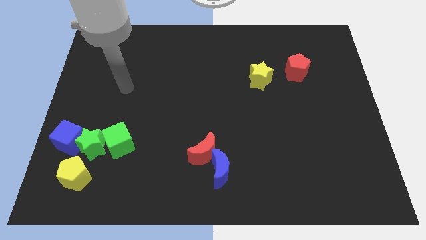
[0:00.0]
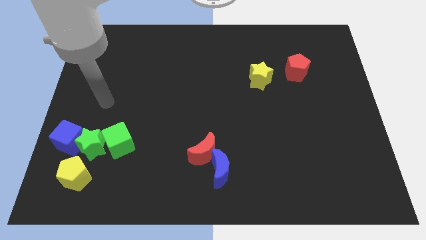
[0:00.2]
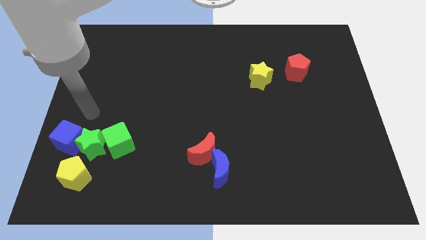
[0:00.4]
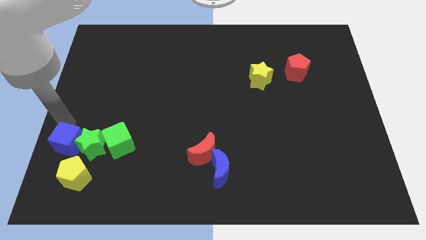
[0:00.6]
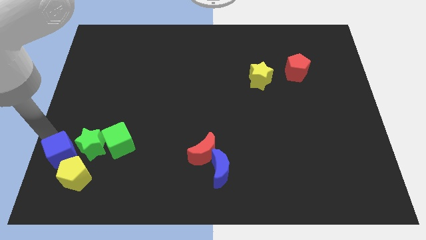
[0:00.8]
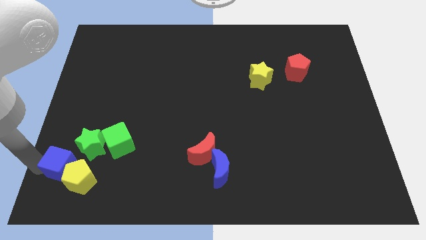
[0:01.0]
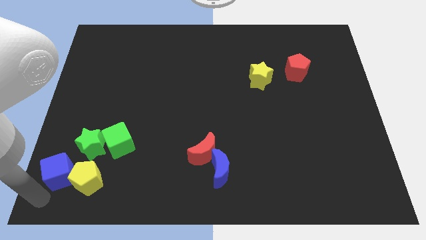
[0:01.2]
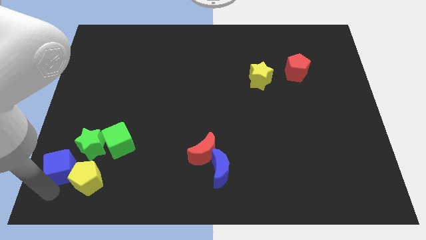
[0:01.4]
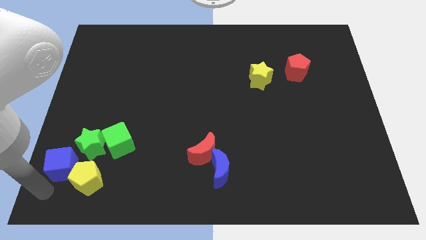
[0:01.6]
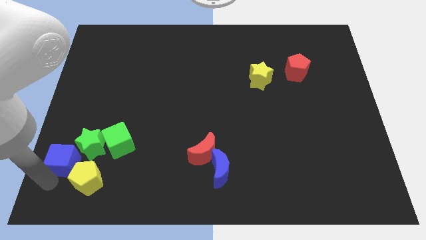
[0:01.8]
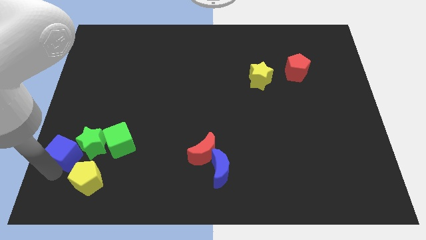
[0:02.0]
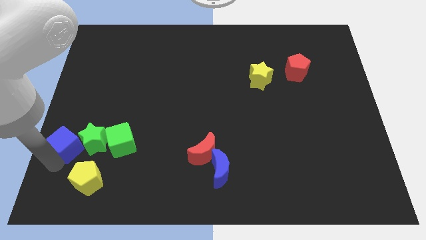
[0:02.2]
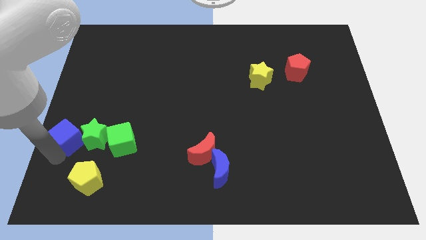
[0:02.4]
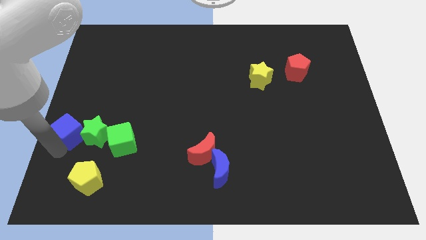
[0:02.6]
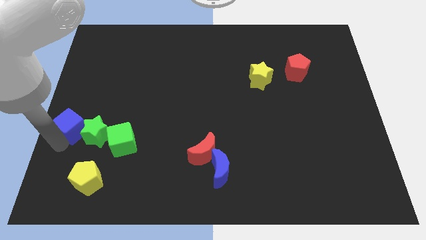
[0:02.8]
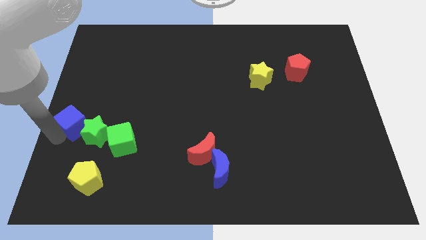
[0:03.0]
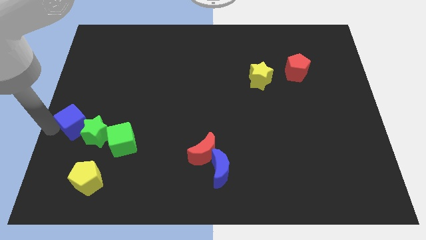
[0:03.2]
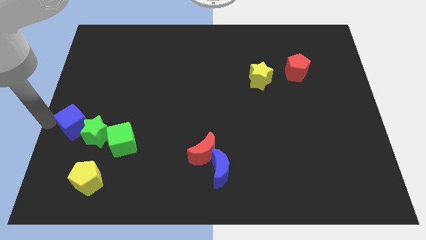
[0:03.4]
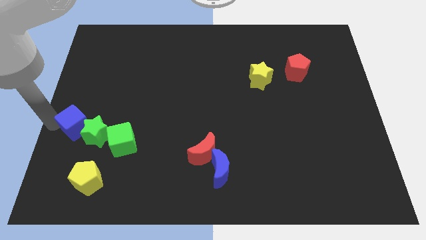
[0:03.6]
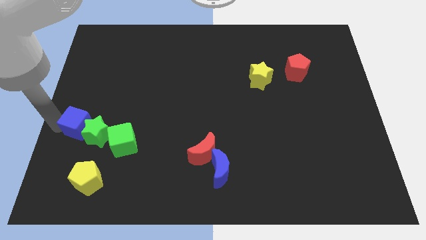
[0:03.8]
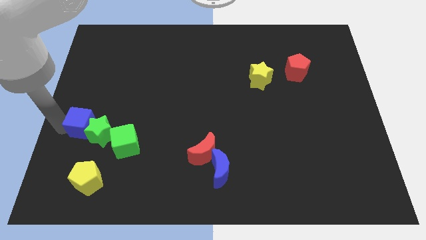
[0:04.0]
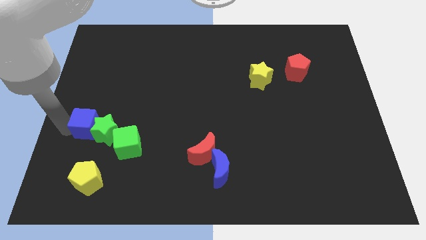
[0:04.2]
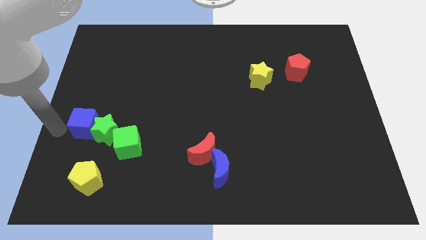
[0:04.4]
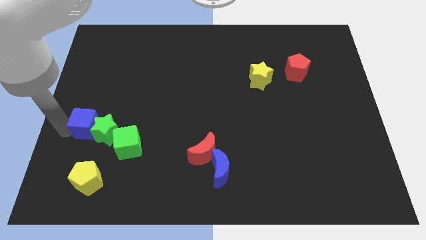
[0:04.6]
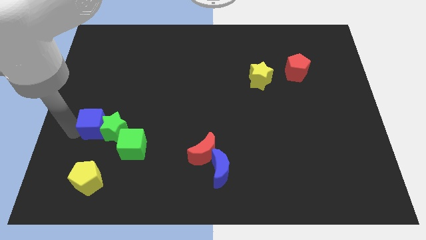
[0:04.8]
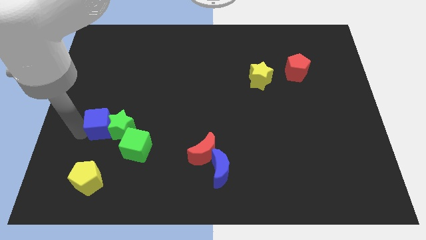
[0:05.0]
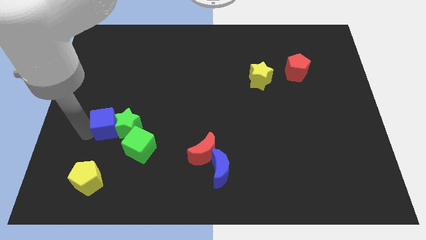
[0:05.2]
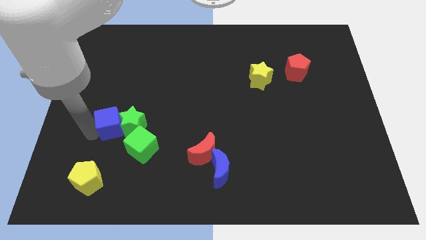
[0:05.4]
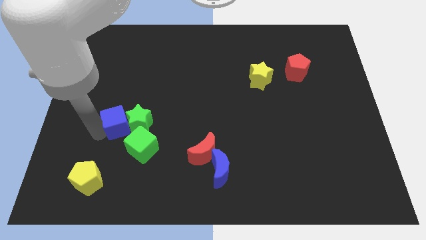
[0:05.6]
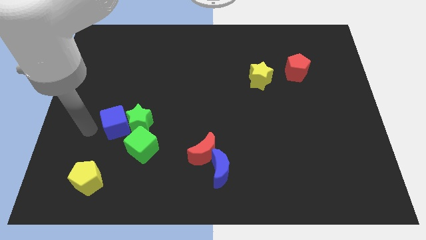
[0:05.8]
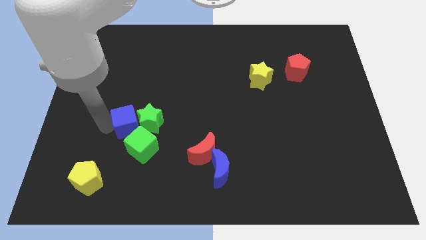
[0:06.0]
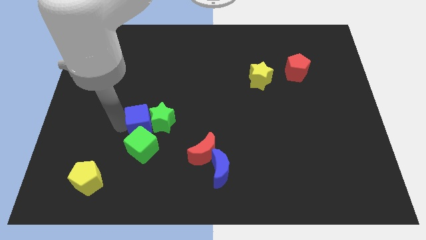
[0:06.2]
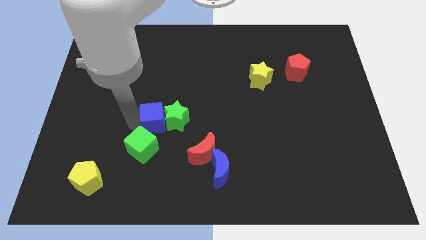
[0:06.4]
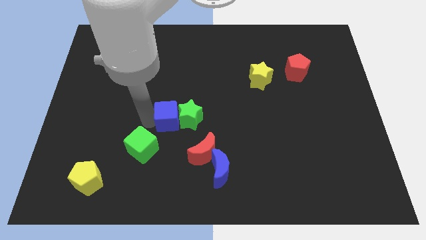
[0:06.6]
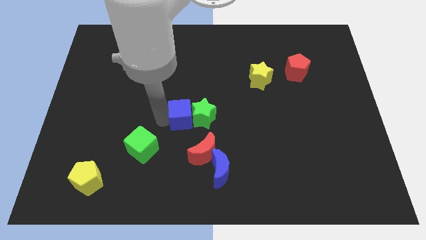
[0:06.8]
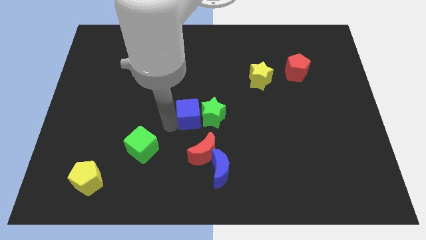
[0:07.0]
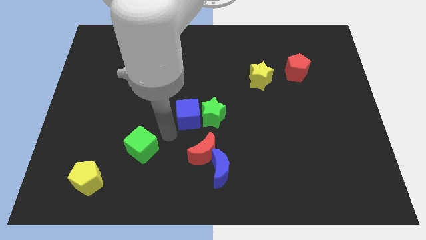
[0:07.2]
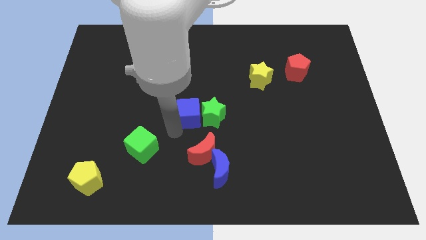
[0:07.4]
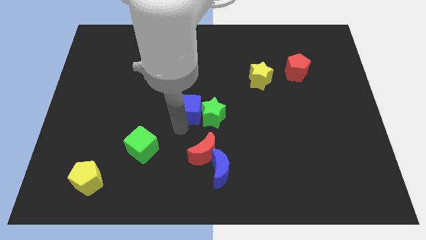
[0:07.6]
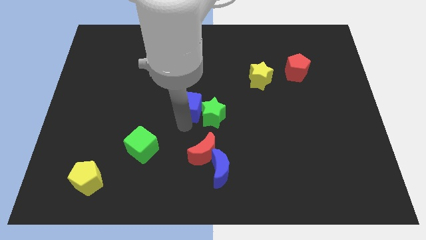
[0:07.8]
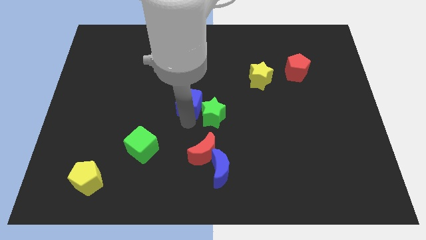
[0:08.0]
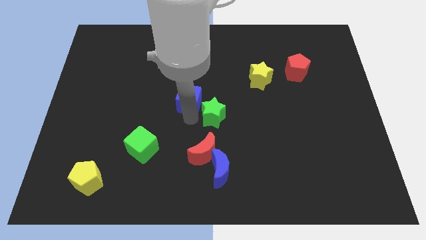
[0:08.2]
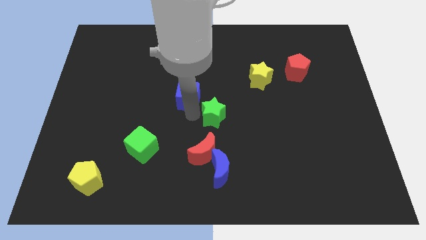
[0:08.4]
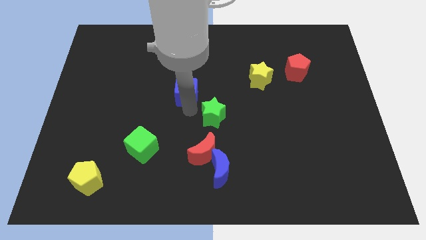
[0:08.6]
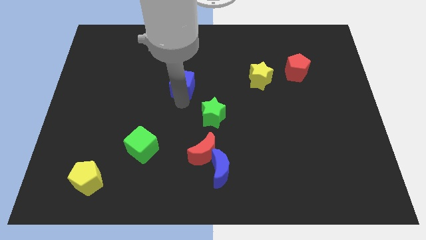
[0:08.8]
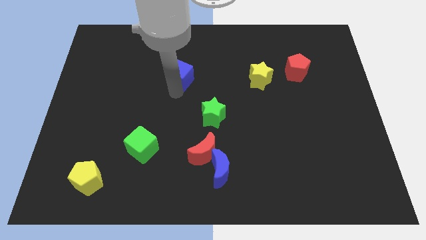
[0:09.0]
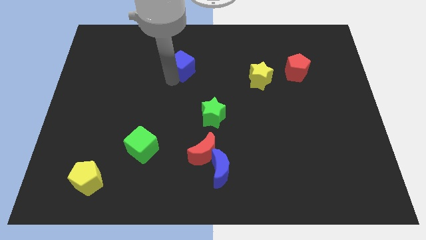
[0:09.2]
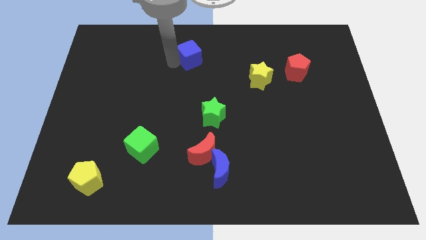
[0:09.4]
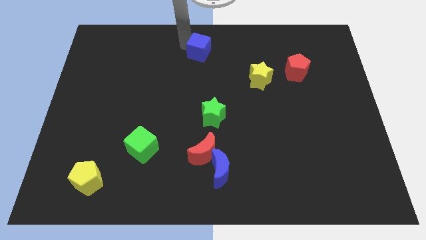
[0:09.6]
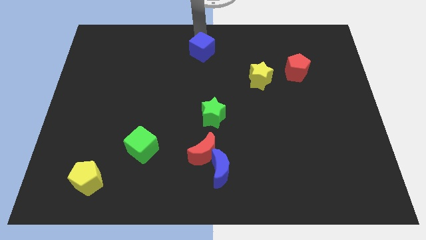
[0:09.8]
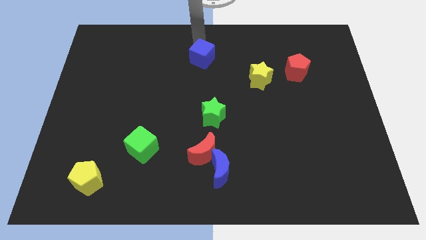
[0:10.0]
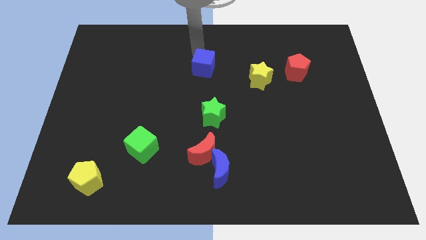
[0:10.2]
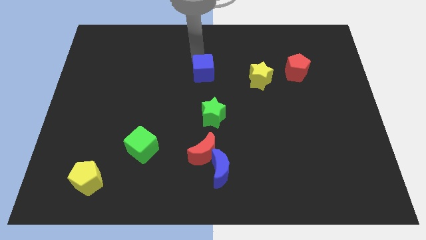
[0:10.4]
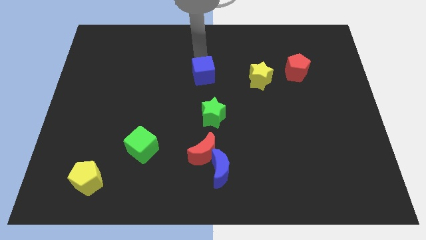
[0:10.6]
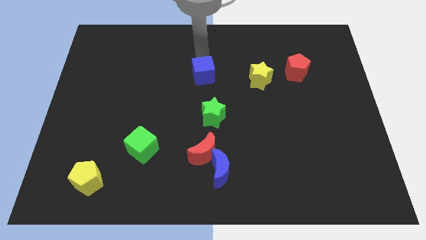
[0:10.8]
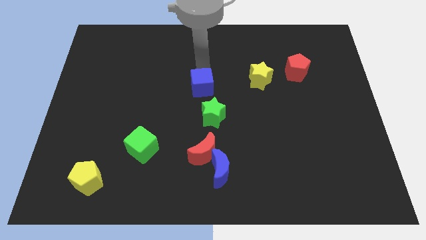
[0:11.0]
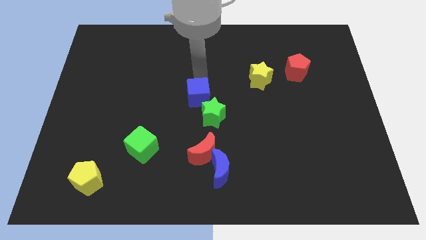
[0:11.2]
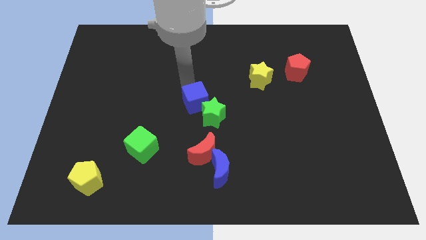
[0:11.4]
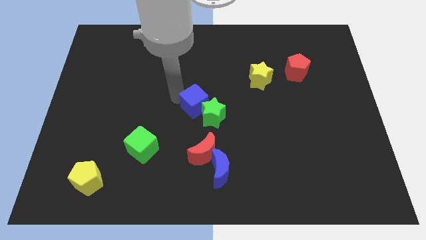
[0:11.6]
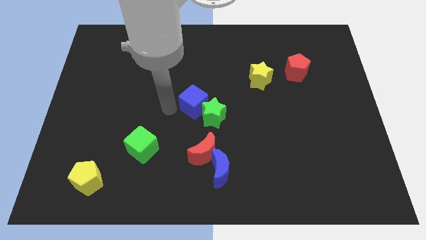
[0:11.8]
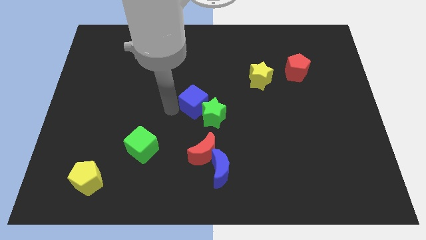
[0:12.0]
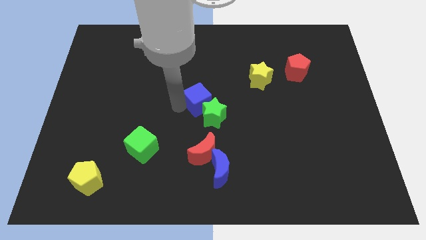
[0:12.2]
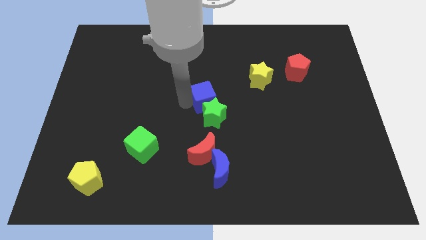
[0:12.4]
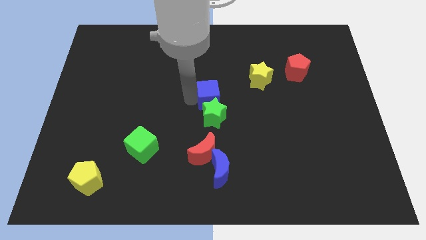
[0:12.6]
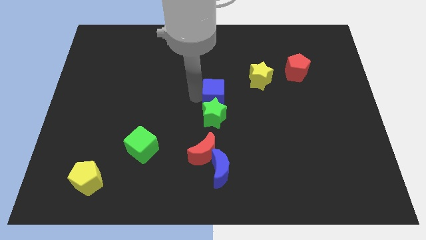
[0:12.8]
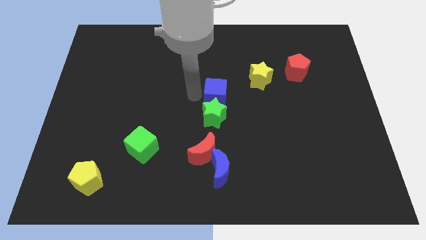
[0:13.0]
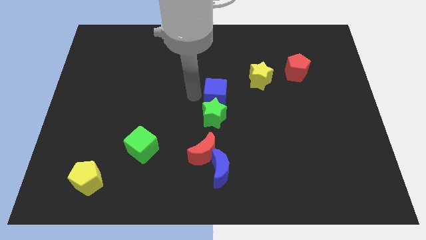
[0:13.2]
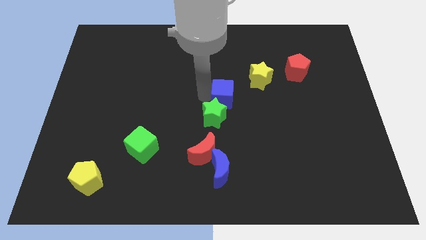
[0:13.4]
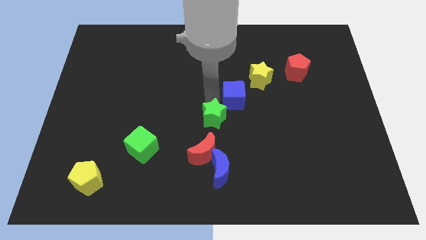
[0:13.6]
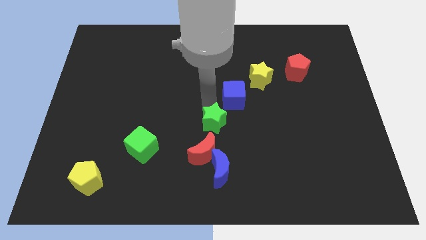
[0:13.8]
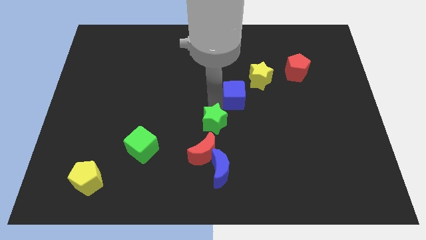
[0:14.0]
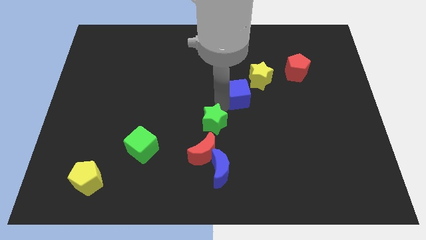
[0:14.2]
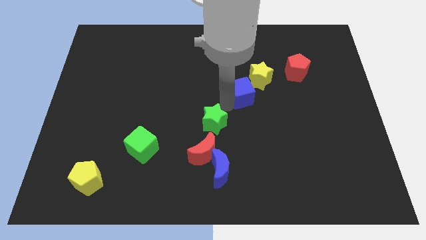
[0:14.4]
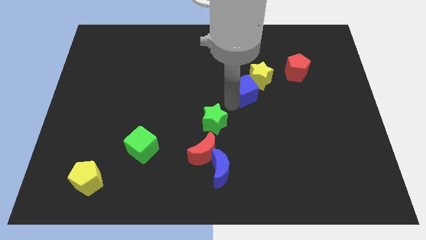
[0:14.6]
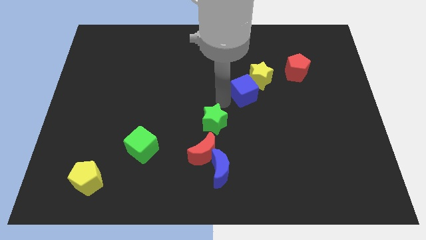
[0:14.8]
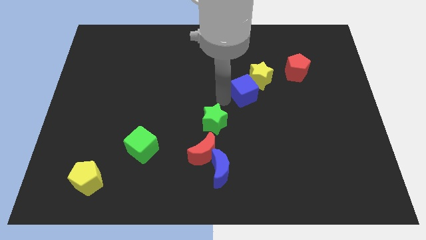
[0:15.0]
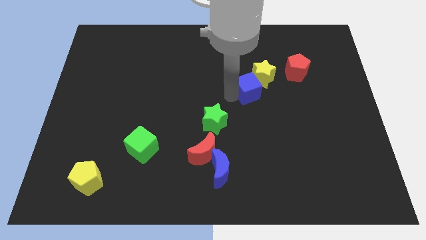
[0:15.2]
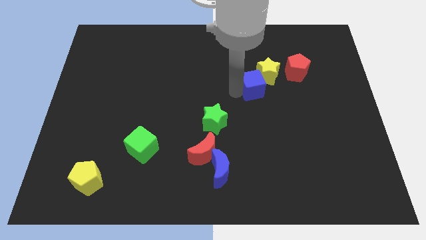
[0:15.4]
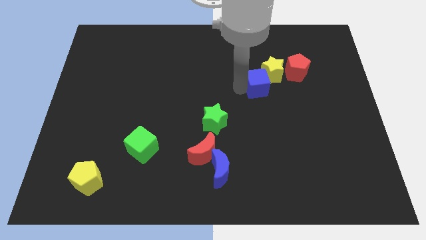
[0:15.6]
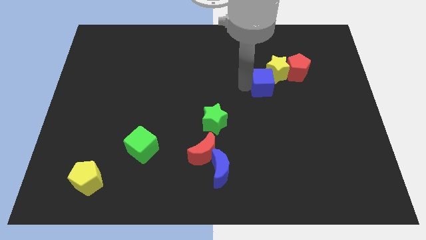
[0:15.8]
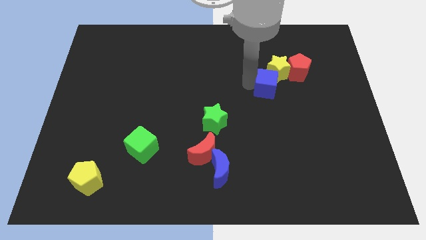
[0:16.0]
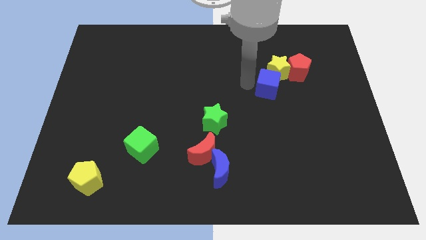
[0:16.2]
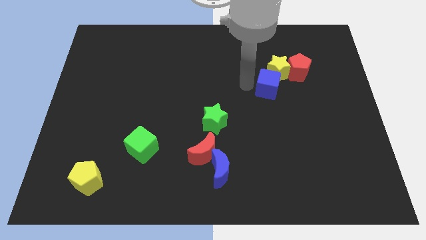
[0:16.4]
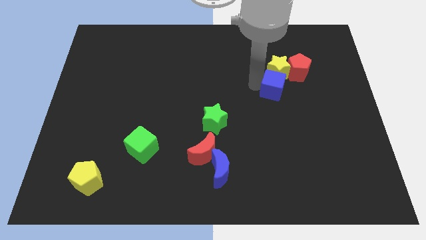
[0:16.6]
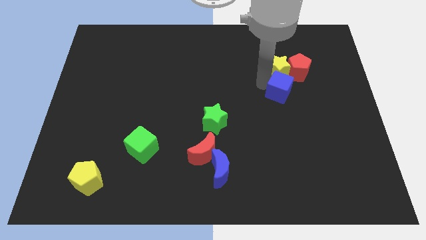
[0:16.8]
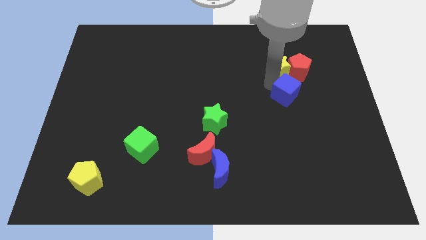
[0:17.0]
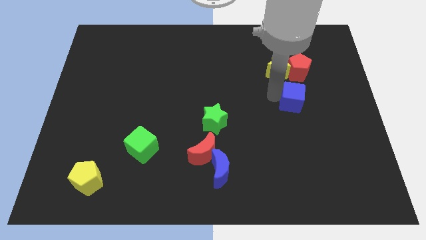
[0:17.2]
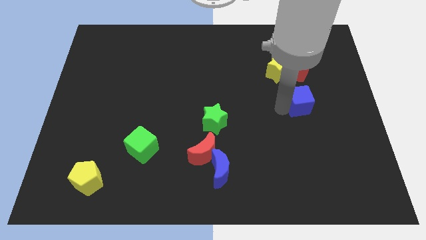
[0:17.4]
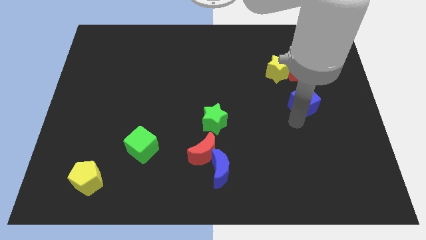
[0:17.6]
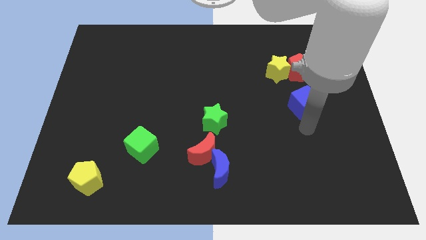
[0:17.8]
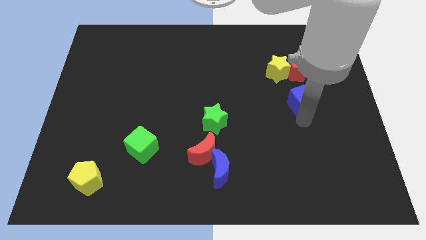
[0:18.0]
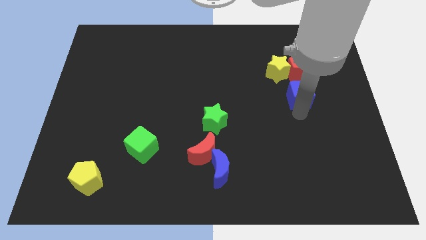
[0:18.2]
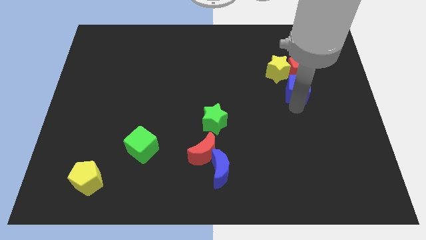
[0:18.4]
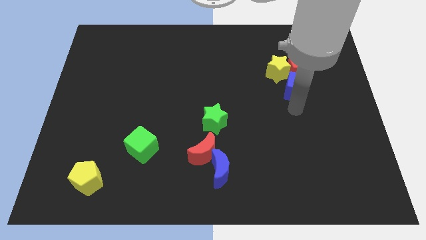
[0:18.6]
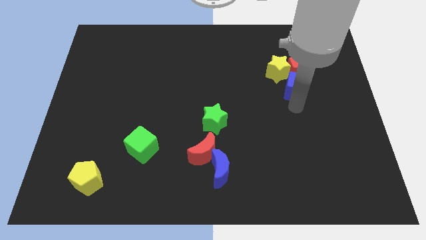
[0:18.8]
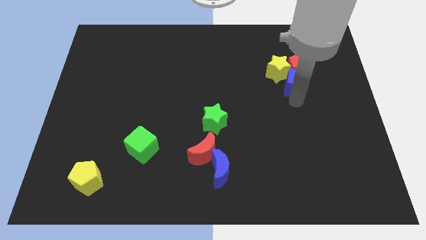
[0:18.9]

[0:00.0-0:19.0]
slide the blue cube close to the red pentagon
